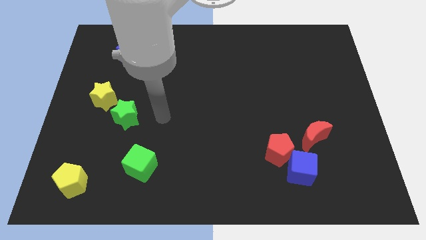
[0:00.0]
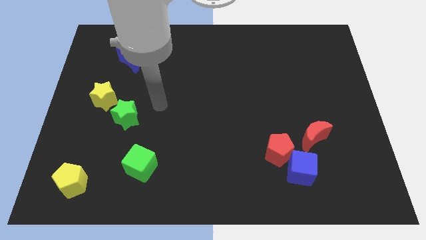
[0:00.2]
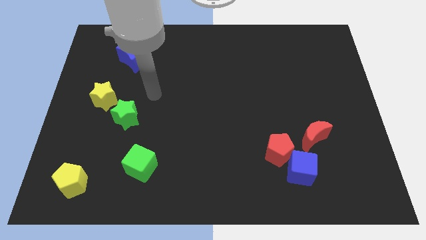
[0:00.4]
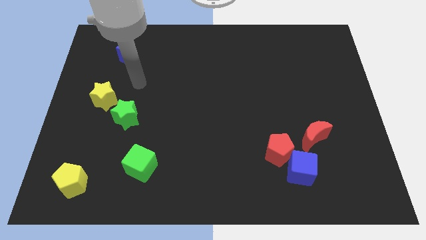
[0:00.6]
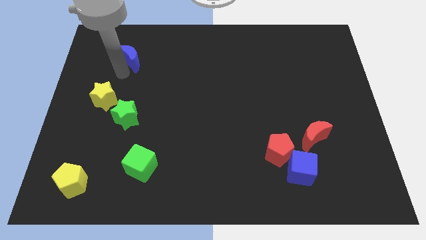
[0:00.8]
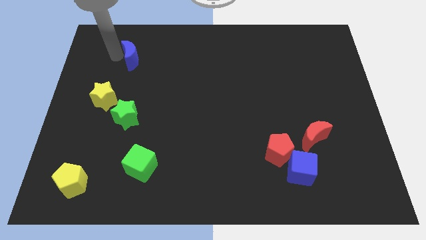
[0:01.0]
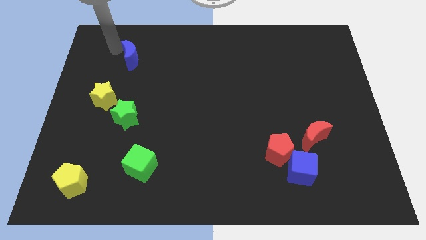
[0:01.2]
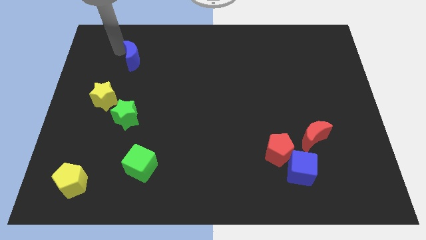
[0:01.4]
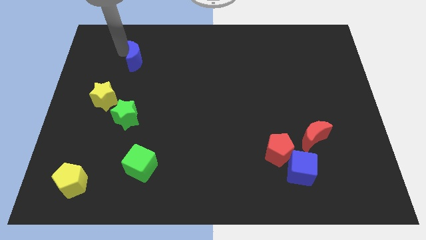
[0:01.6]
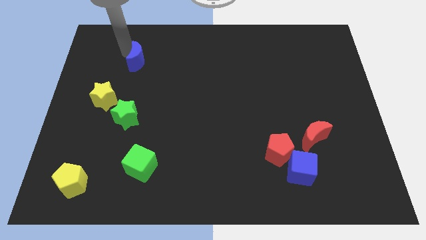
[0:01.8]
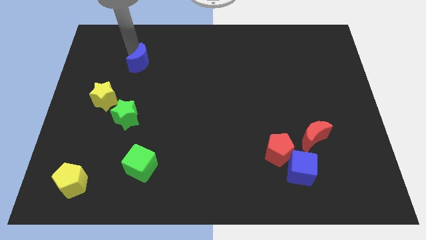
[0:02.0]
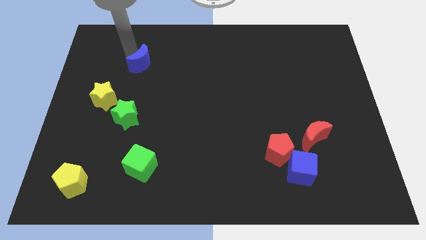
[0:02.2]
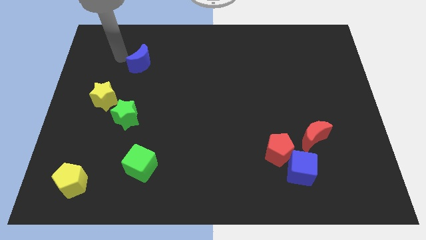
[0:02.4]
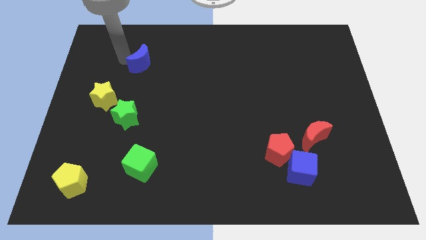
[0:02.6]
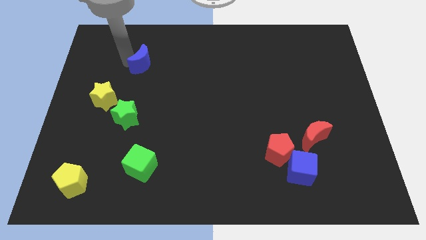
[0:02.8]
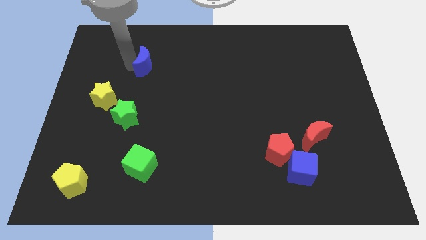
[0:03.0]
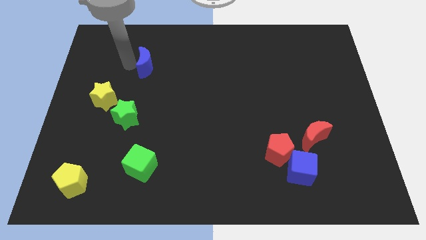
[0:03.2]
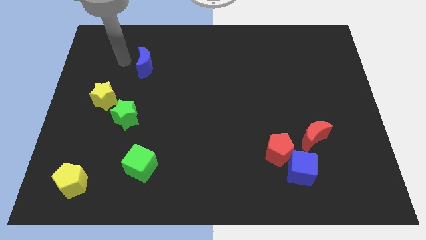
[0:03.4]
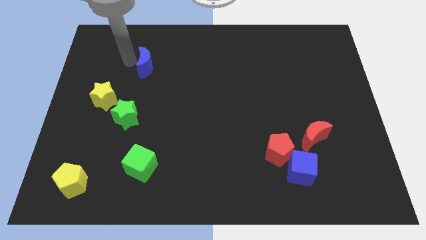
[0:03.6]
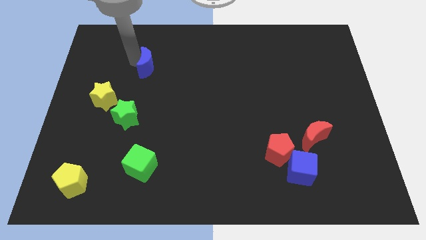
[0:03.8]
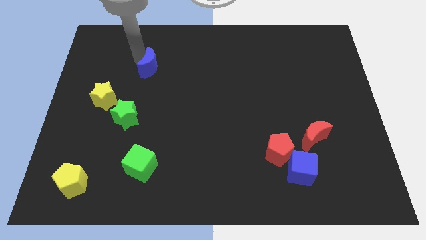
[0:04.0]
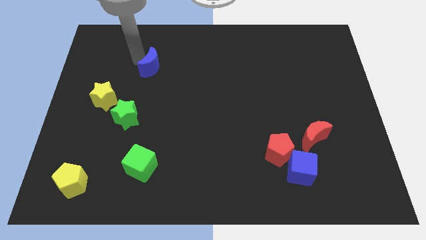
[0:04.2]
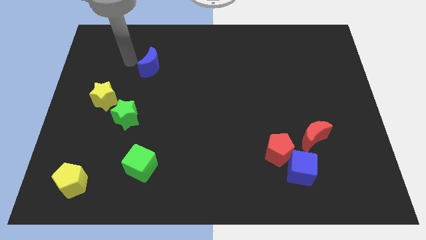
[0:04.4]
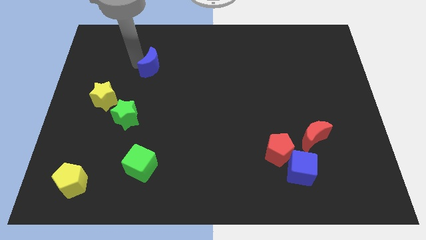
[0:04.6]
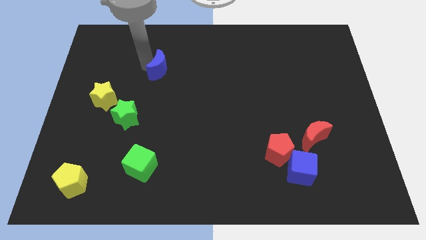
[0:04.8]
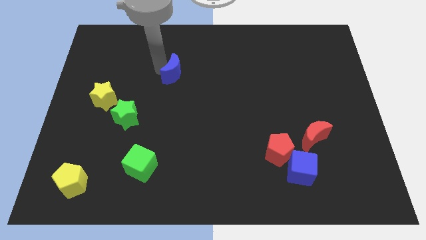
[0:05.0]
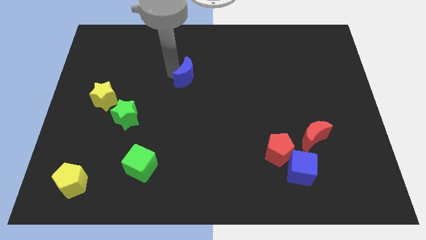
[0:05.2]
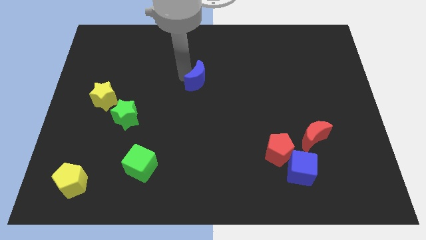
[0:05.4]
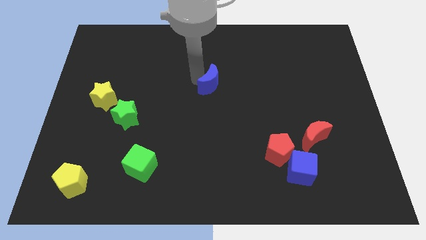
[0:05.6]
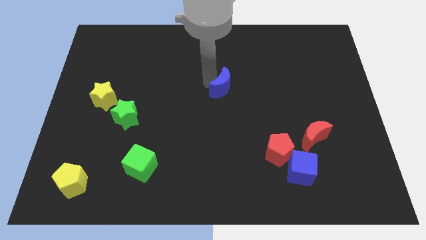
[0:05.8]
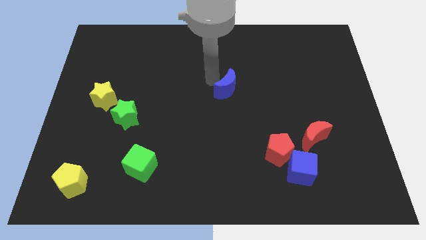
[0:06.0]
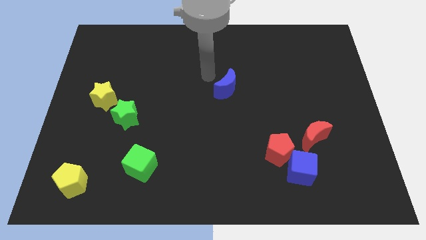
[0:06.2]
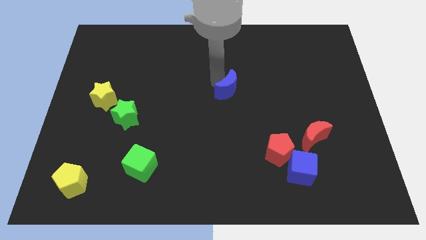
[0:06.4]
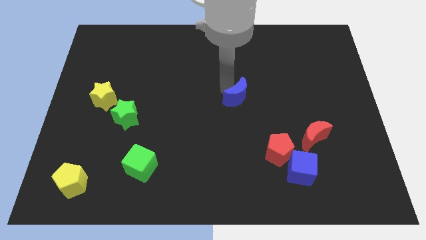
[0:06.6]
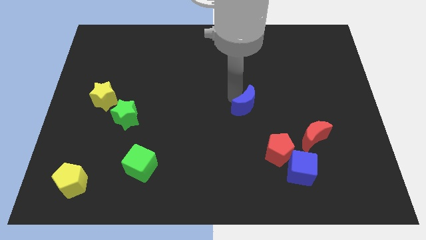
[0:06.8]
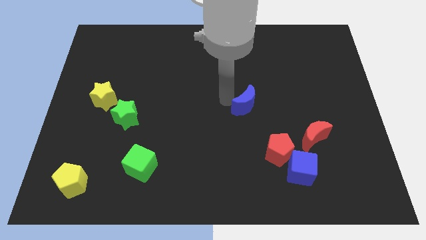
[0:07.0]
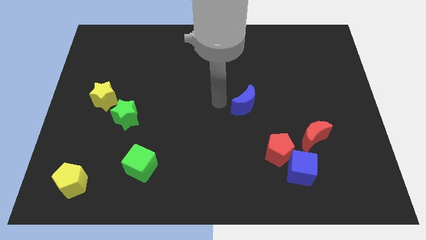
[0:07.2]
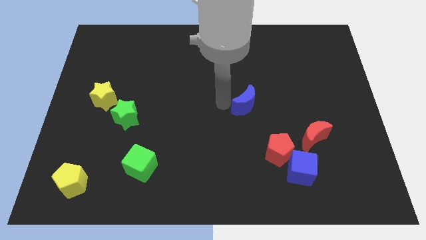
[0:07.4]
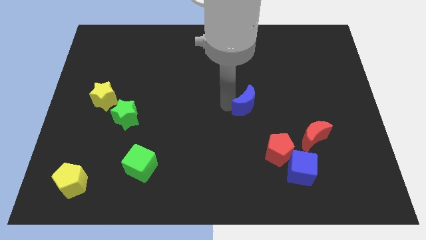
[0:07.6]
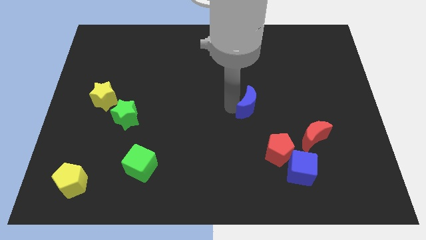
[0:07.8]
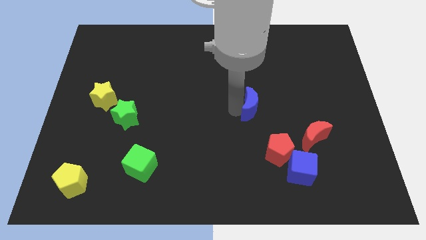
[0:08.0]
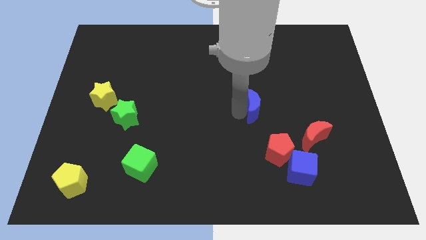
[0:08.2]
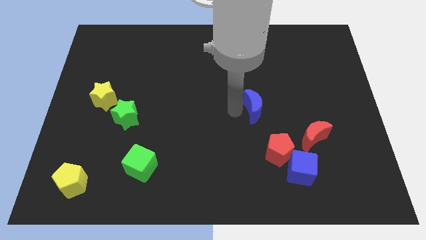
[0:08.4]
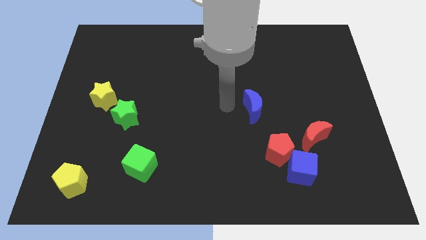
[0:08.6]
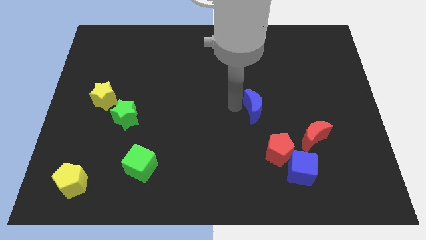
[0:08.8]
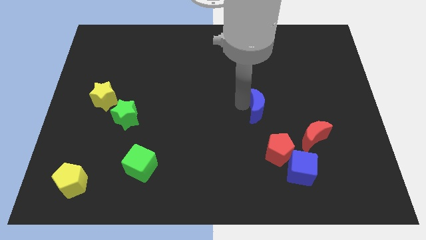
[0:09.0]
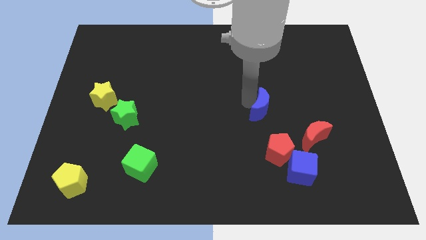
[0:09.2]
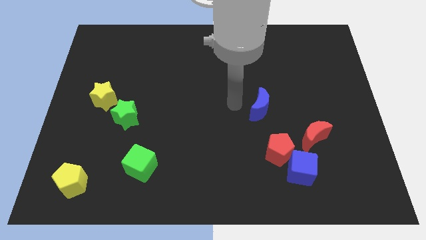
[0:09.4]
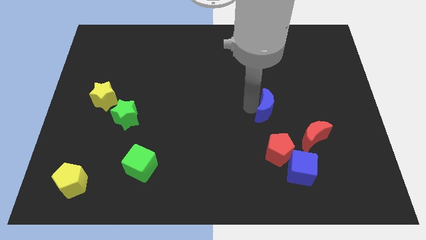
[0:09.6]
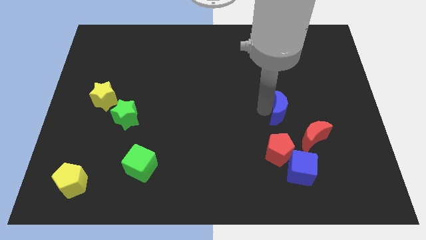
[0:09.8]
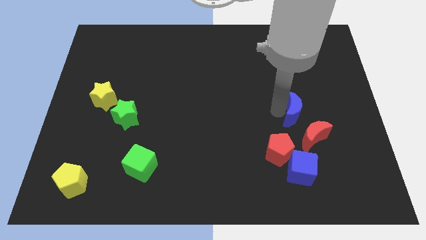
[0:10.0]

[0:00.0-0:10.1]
push the blue moon diagonally up and to the right of the red pentagon

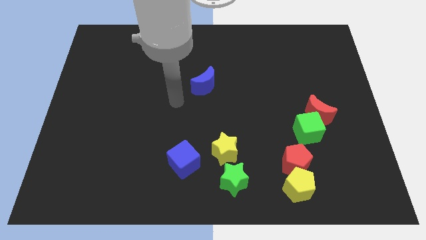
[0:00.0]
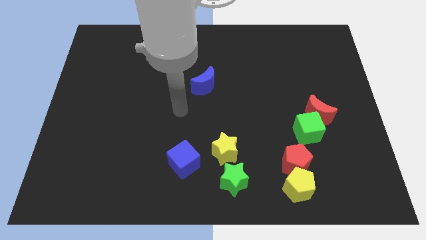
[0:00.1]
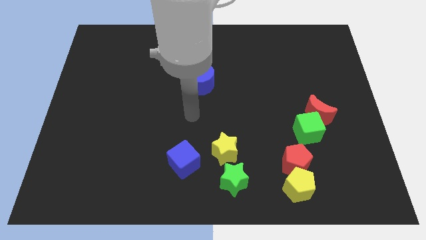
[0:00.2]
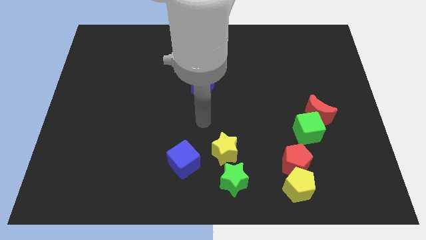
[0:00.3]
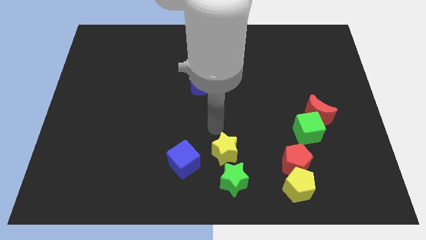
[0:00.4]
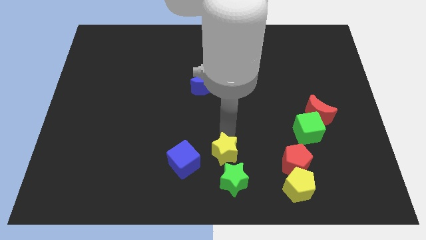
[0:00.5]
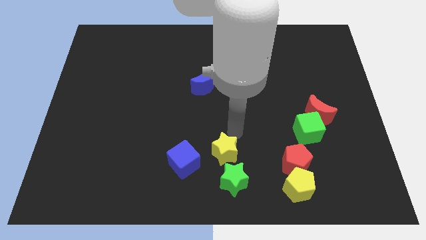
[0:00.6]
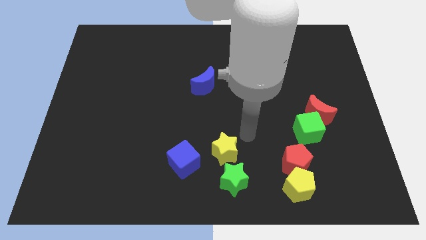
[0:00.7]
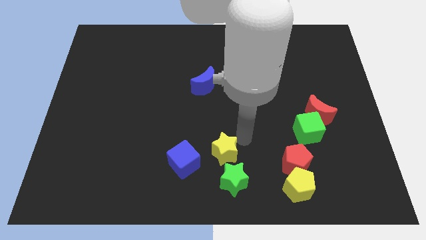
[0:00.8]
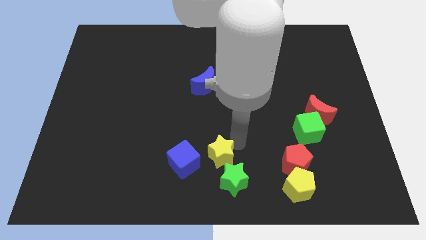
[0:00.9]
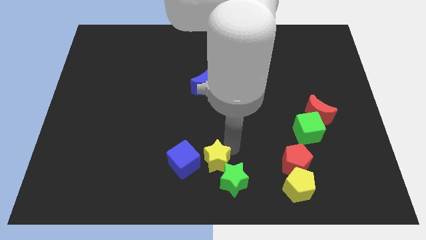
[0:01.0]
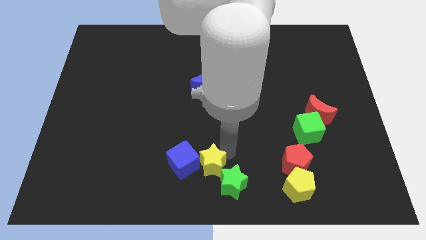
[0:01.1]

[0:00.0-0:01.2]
put the yellow star just left of the green star

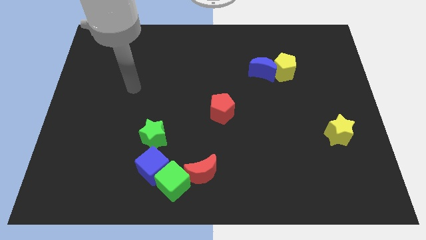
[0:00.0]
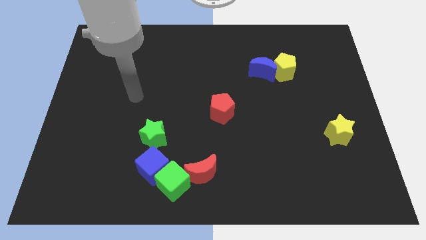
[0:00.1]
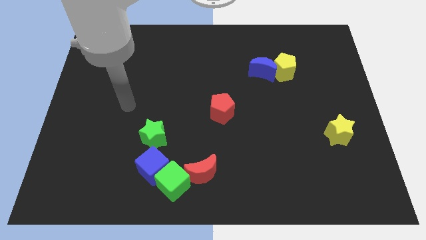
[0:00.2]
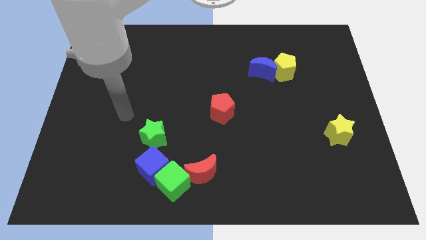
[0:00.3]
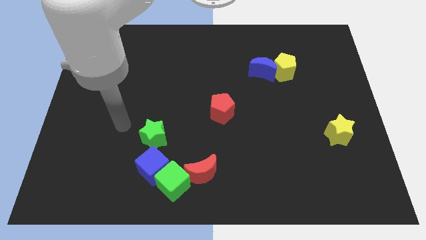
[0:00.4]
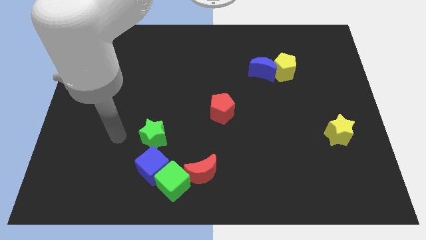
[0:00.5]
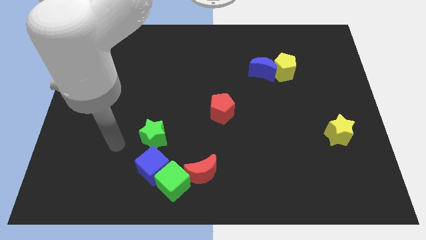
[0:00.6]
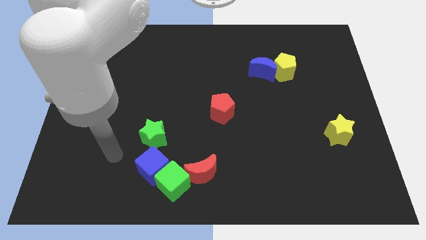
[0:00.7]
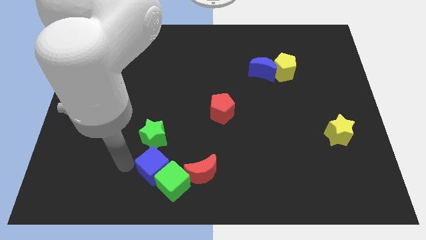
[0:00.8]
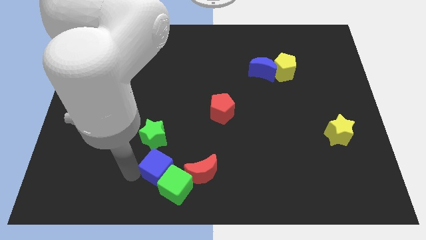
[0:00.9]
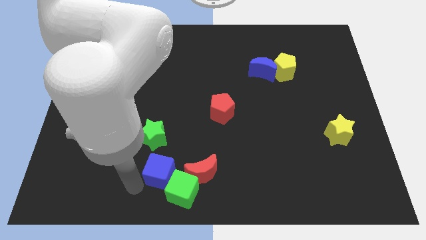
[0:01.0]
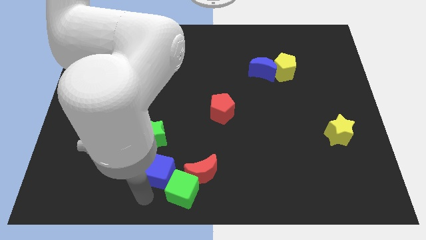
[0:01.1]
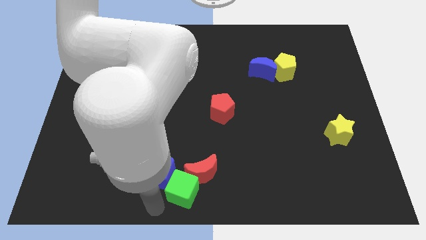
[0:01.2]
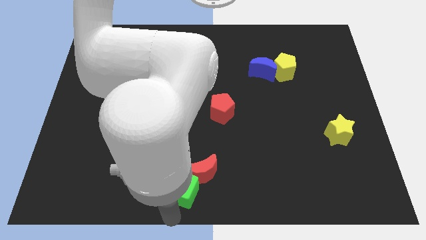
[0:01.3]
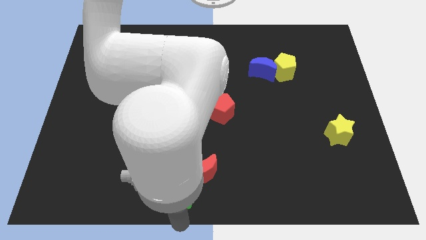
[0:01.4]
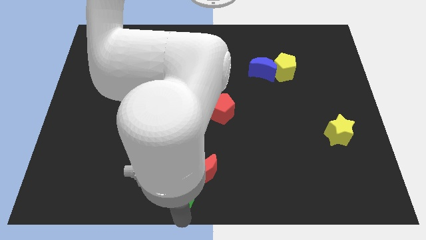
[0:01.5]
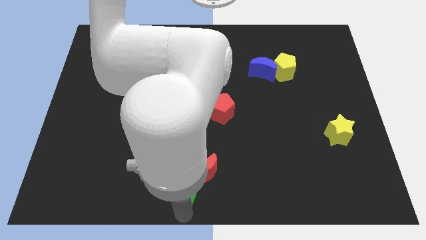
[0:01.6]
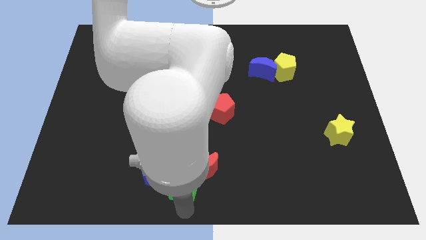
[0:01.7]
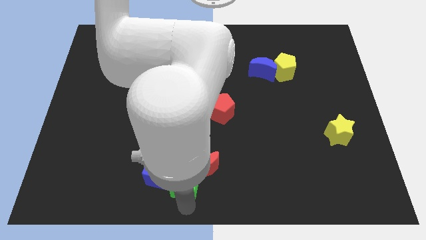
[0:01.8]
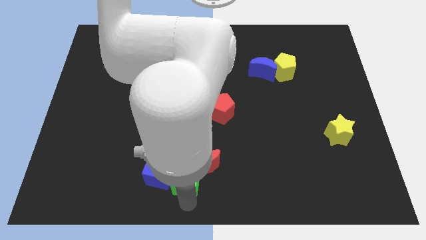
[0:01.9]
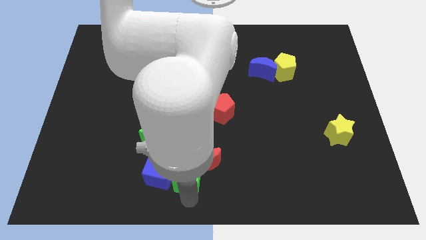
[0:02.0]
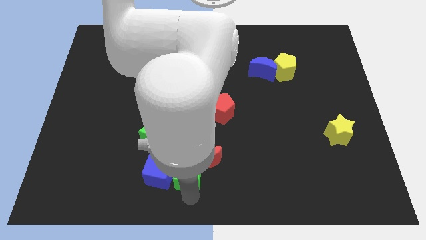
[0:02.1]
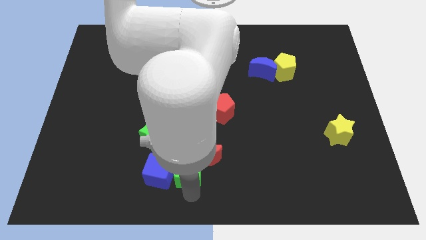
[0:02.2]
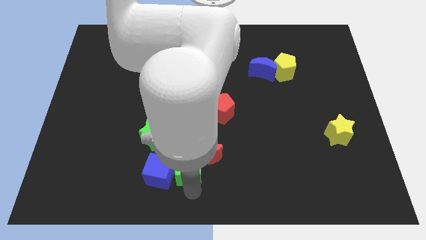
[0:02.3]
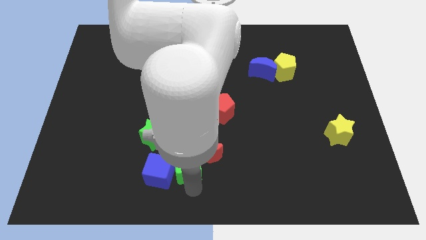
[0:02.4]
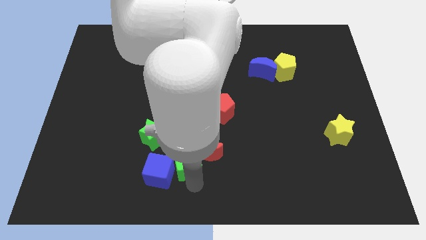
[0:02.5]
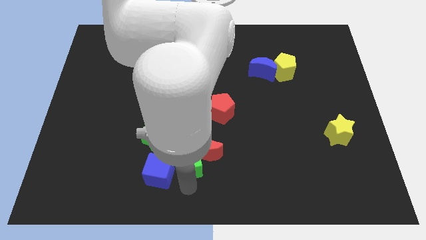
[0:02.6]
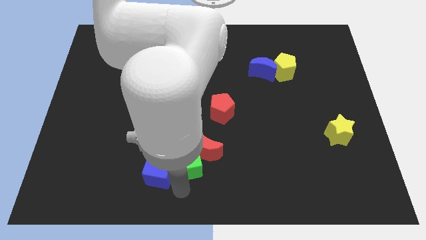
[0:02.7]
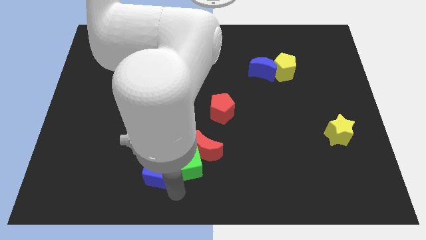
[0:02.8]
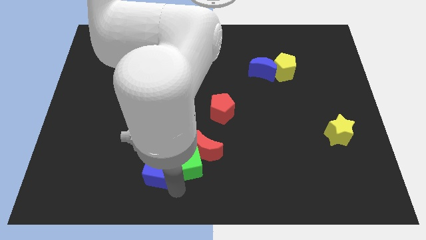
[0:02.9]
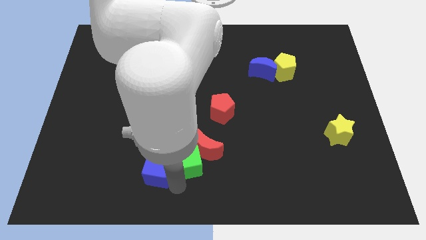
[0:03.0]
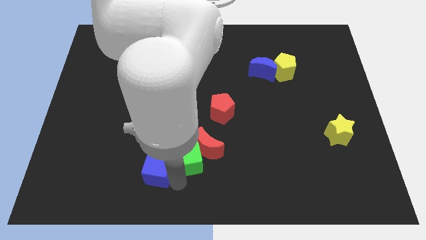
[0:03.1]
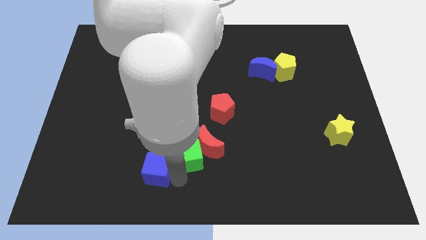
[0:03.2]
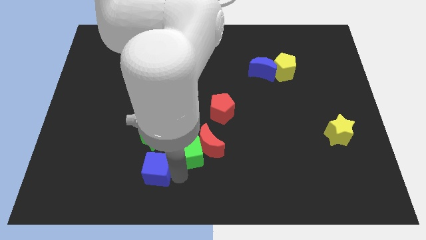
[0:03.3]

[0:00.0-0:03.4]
move the green cube to the right of the green star
